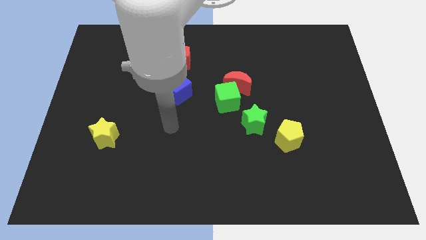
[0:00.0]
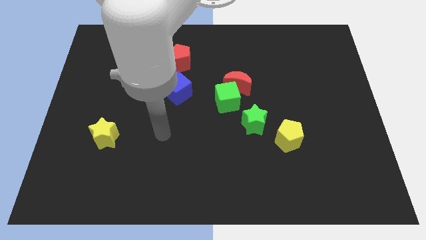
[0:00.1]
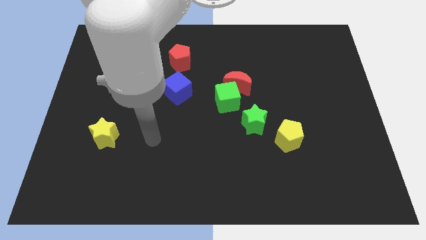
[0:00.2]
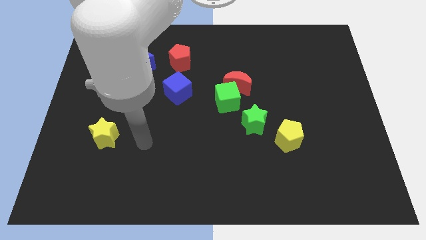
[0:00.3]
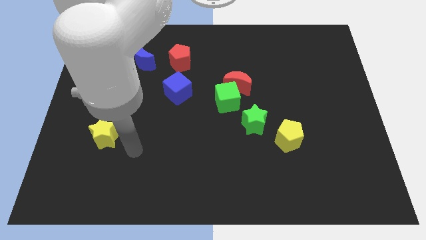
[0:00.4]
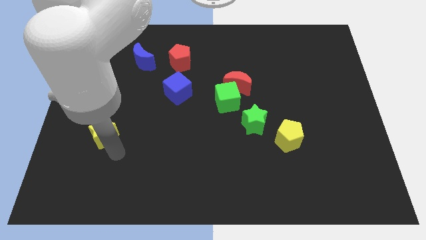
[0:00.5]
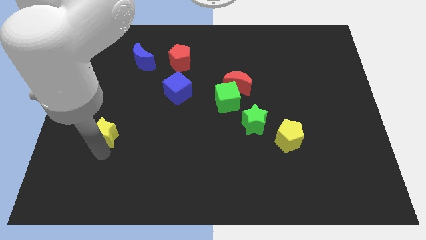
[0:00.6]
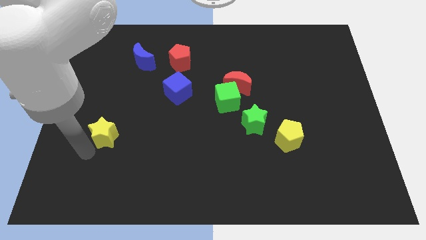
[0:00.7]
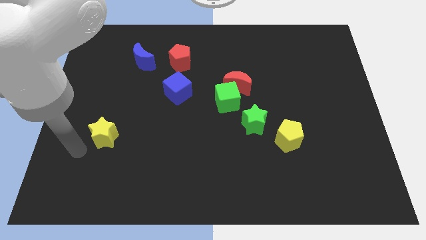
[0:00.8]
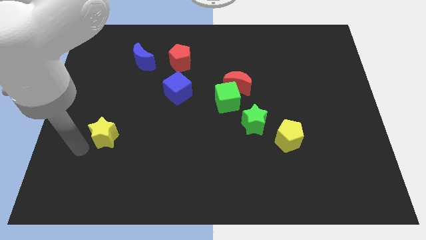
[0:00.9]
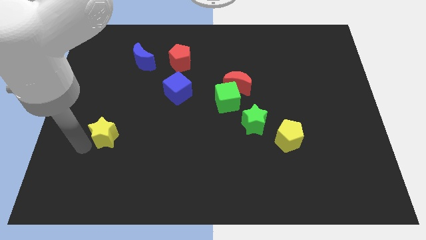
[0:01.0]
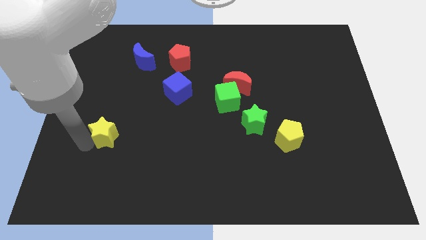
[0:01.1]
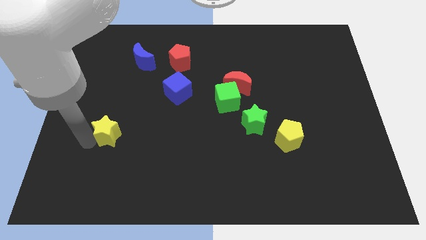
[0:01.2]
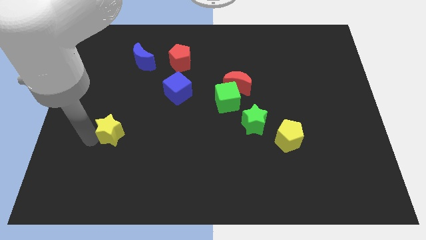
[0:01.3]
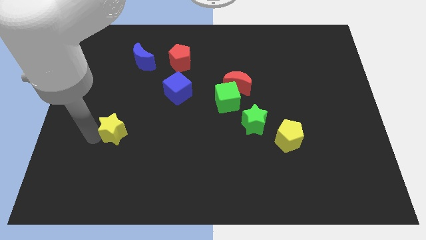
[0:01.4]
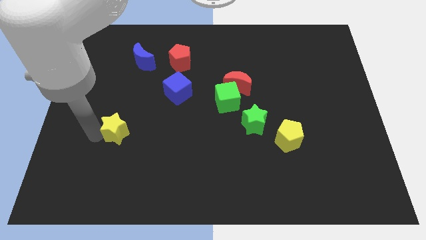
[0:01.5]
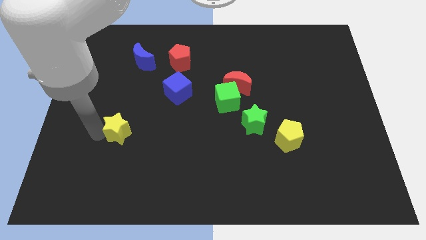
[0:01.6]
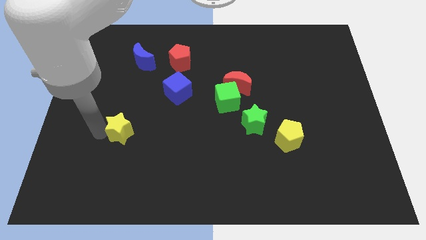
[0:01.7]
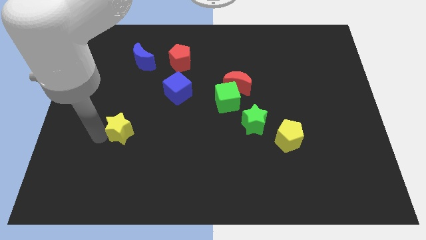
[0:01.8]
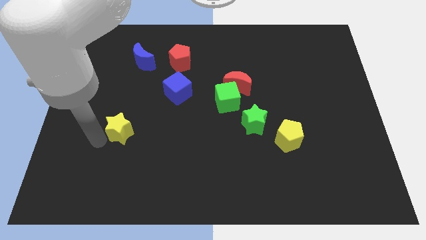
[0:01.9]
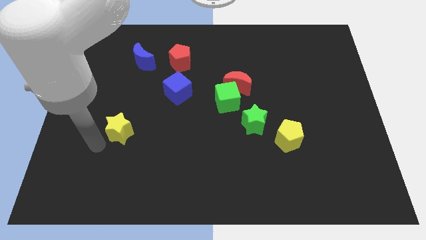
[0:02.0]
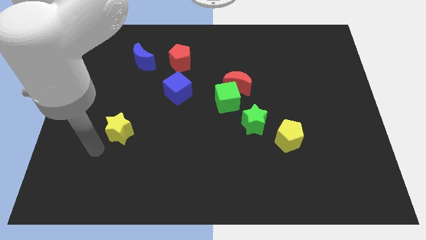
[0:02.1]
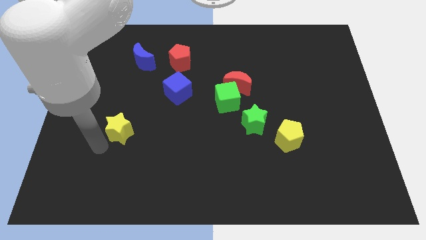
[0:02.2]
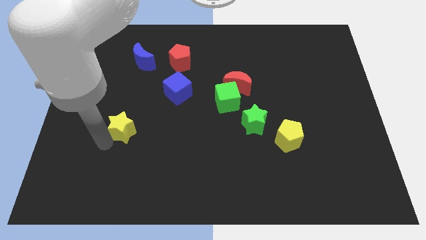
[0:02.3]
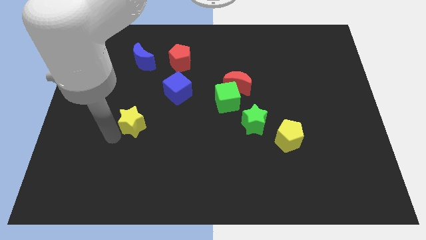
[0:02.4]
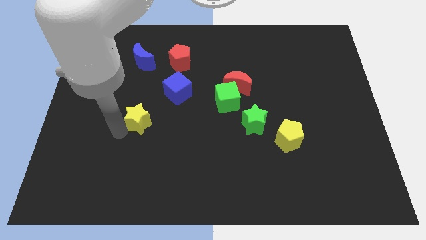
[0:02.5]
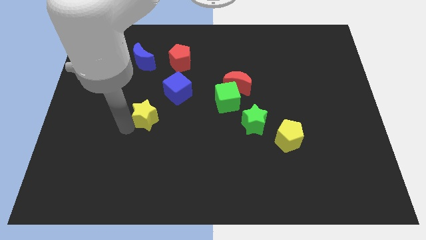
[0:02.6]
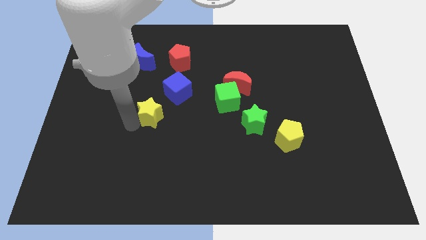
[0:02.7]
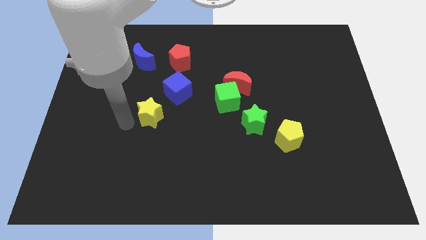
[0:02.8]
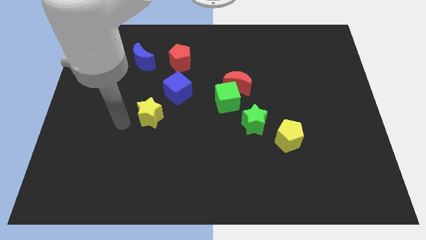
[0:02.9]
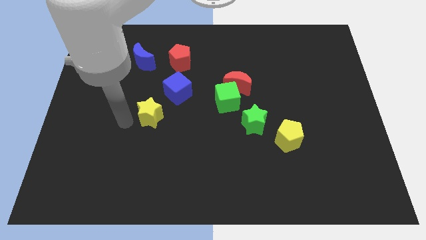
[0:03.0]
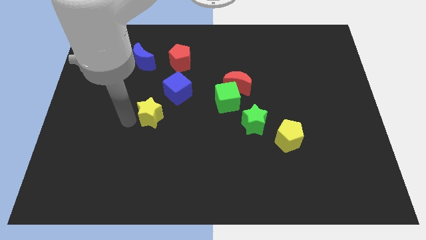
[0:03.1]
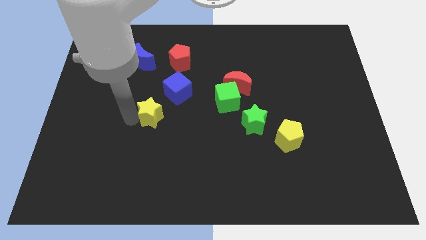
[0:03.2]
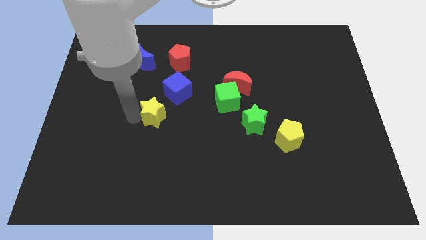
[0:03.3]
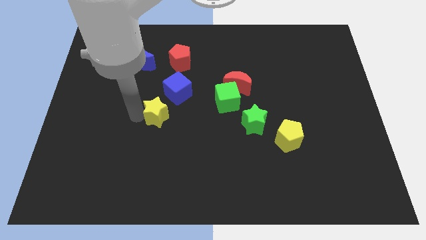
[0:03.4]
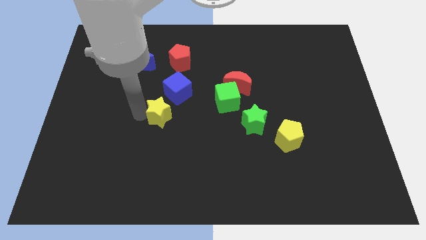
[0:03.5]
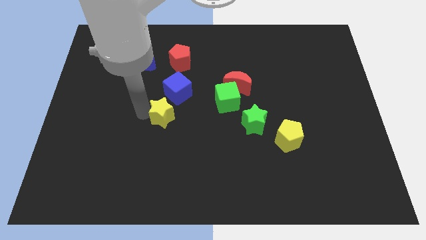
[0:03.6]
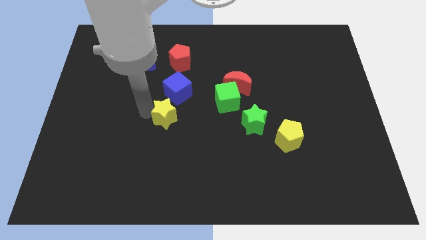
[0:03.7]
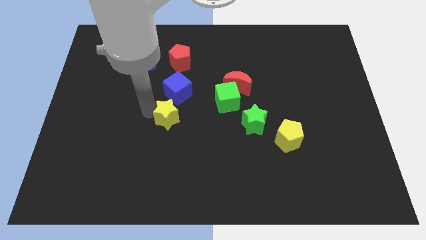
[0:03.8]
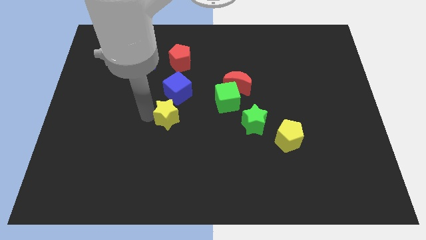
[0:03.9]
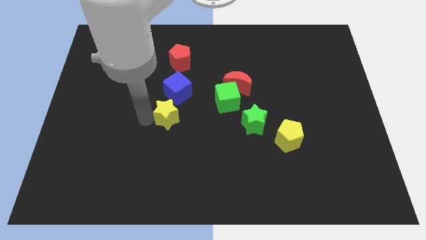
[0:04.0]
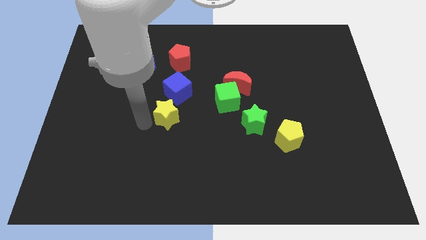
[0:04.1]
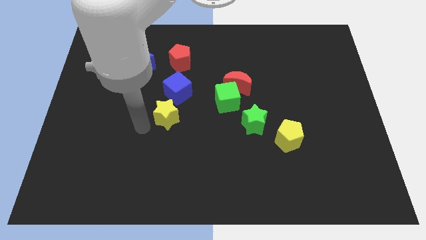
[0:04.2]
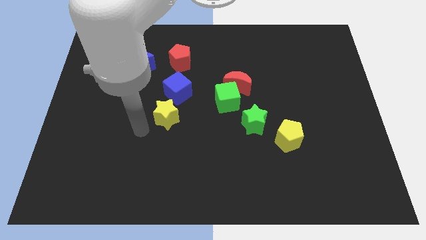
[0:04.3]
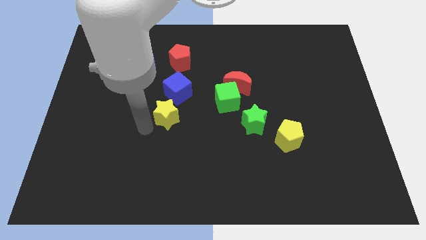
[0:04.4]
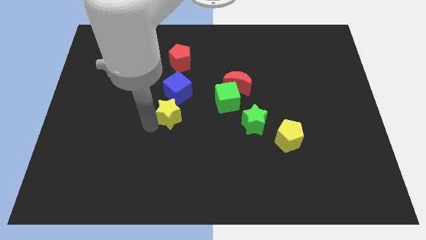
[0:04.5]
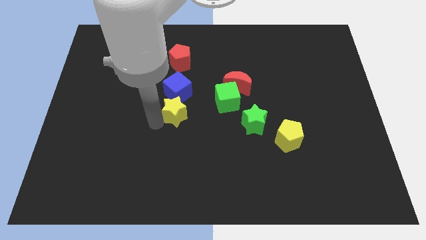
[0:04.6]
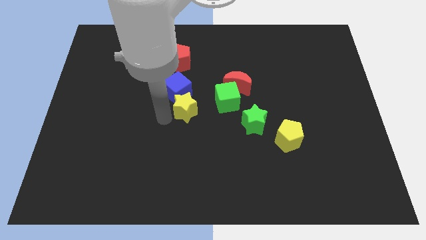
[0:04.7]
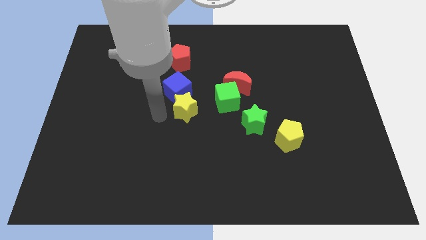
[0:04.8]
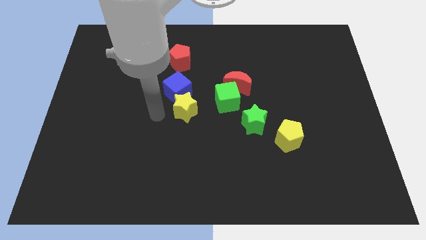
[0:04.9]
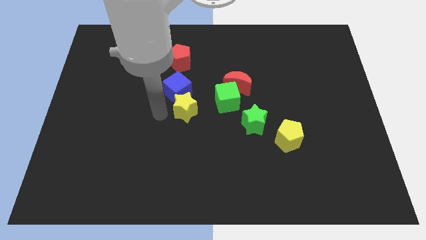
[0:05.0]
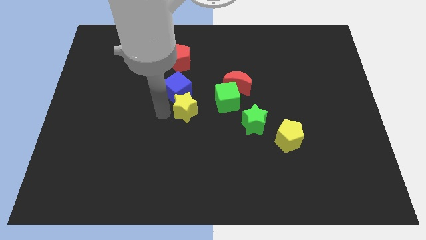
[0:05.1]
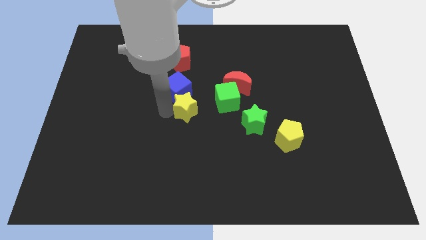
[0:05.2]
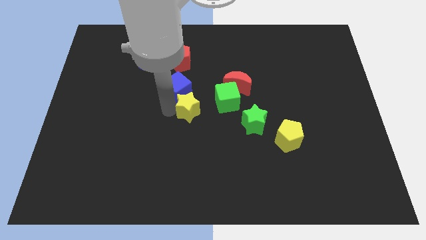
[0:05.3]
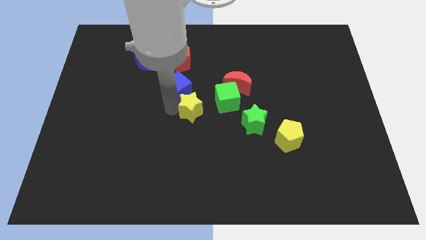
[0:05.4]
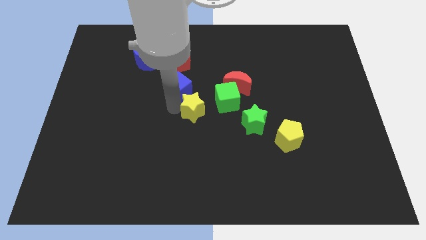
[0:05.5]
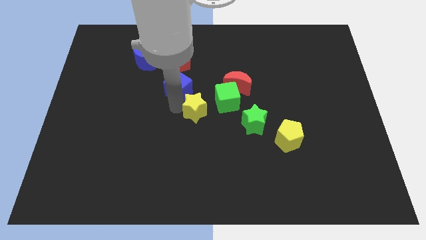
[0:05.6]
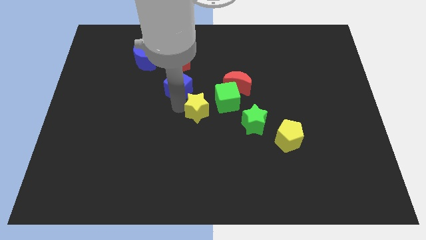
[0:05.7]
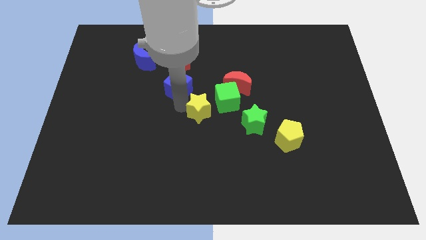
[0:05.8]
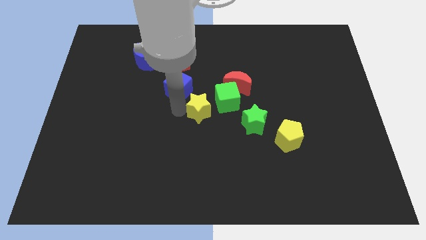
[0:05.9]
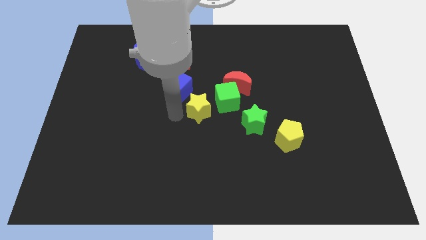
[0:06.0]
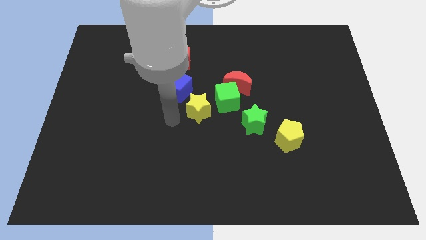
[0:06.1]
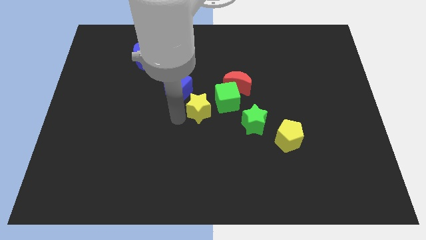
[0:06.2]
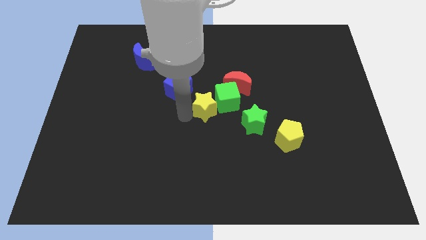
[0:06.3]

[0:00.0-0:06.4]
push the yellow star next to the green cube

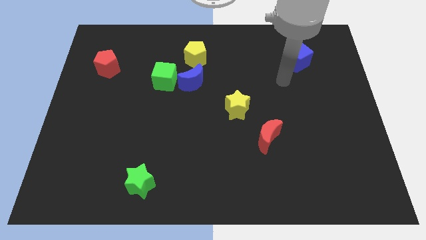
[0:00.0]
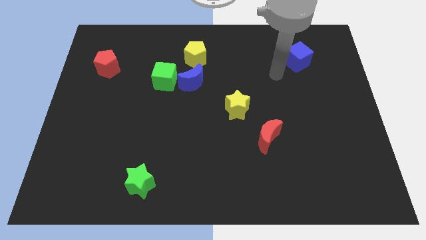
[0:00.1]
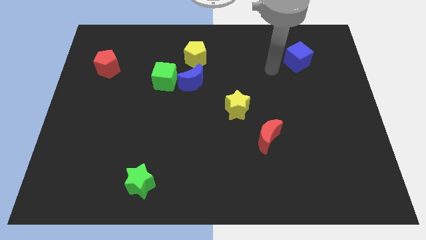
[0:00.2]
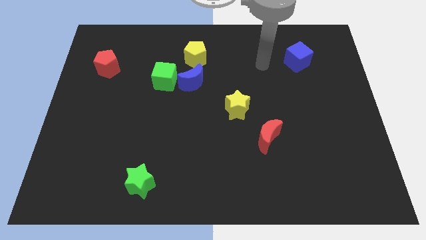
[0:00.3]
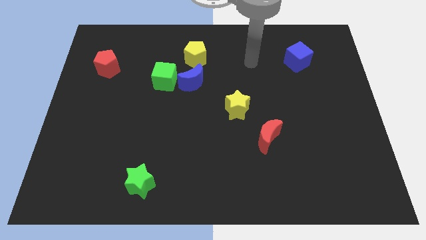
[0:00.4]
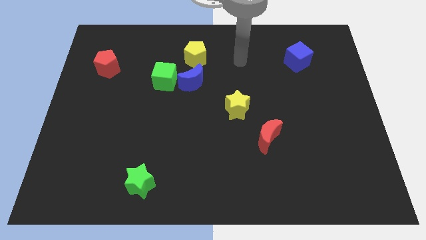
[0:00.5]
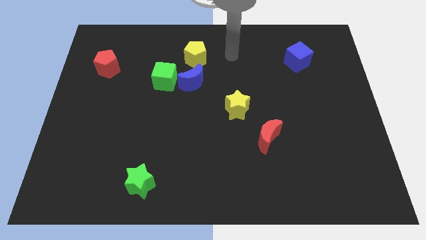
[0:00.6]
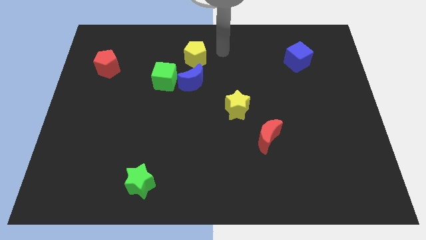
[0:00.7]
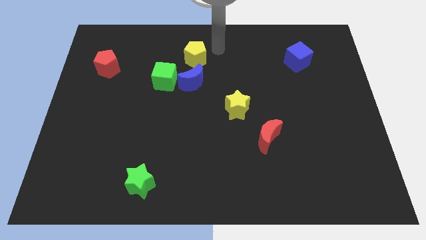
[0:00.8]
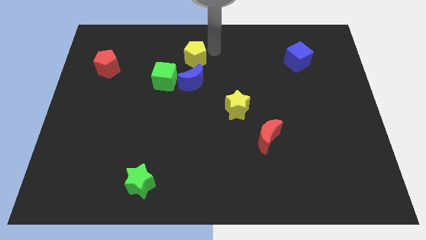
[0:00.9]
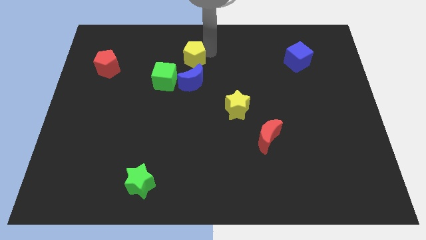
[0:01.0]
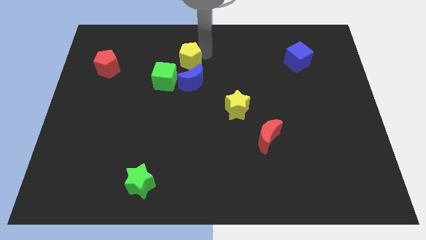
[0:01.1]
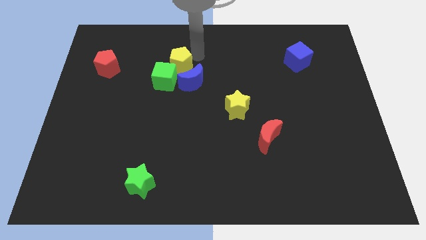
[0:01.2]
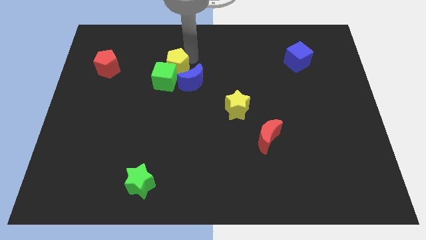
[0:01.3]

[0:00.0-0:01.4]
slide the yellow pentagon to the green cube
